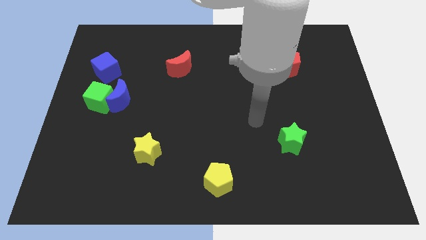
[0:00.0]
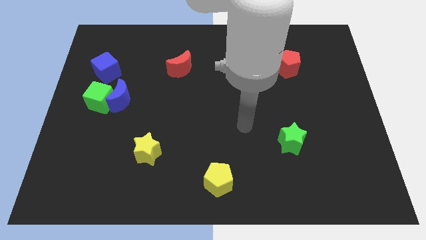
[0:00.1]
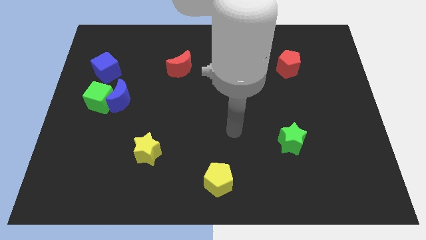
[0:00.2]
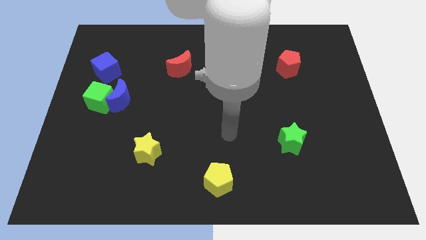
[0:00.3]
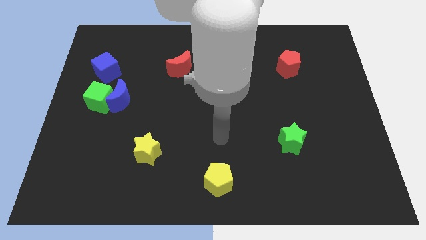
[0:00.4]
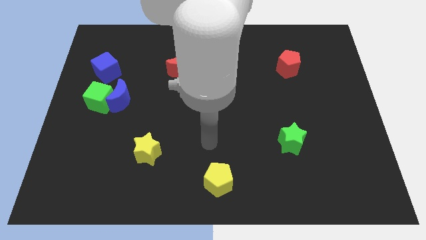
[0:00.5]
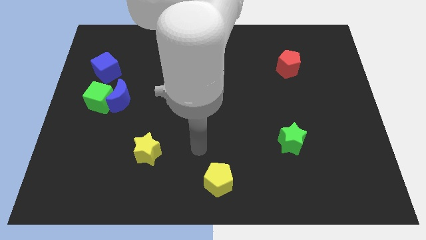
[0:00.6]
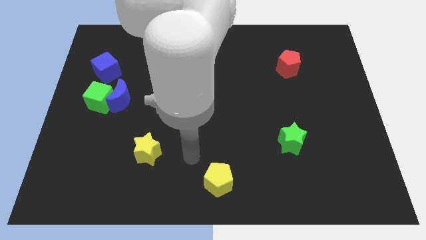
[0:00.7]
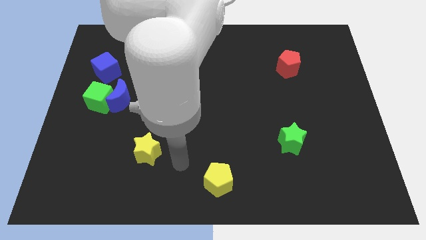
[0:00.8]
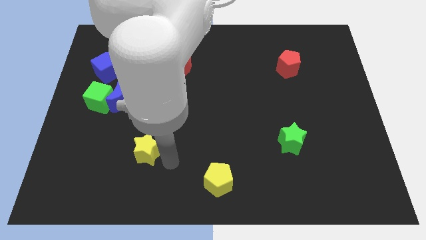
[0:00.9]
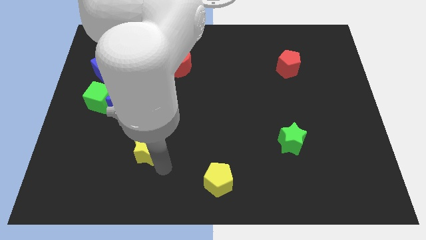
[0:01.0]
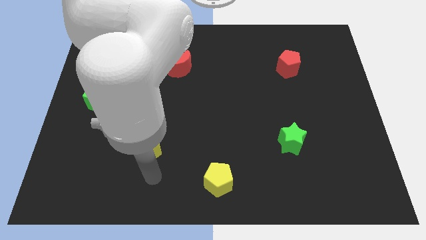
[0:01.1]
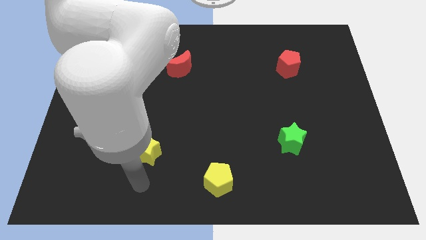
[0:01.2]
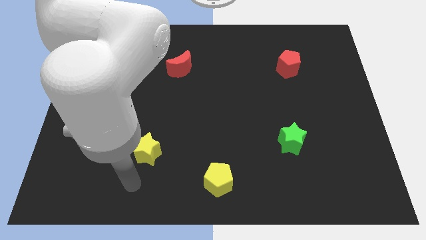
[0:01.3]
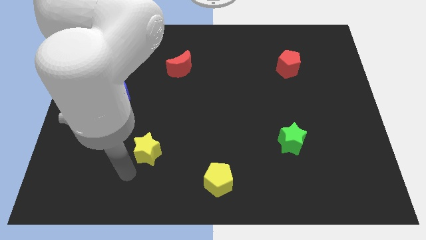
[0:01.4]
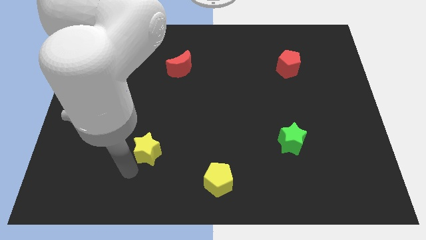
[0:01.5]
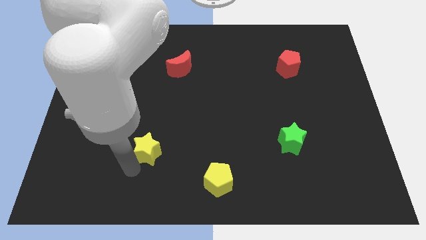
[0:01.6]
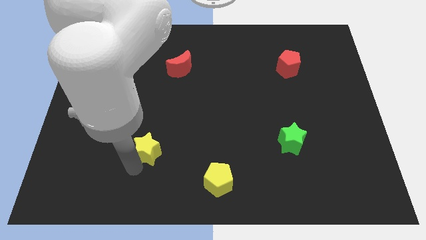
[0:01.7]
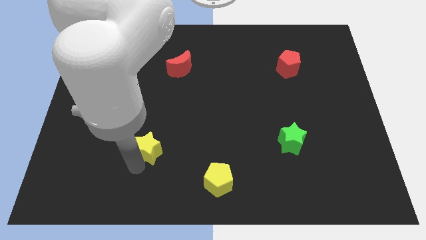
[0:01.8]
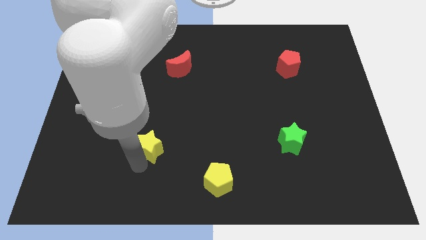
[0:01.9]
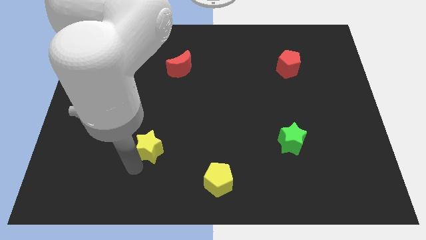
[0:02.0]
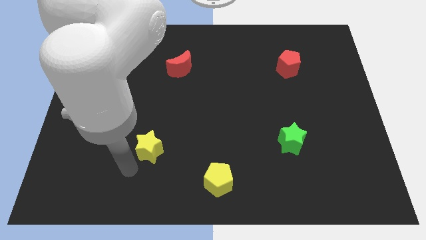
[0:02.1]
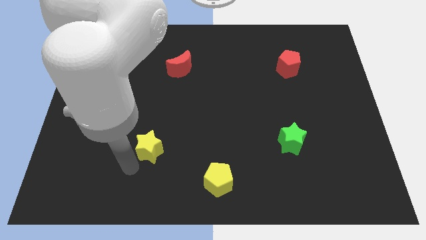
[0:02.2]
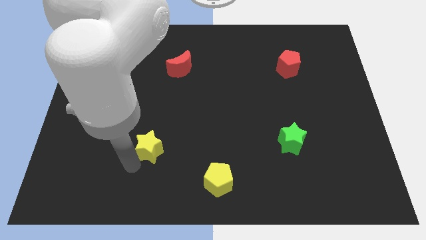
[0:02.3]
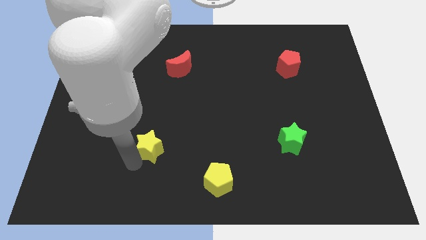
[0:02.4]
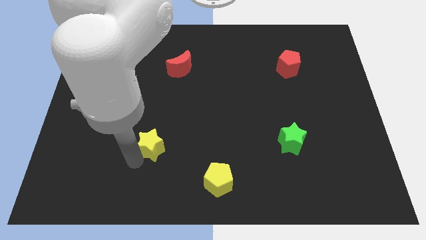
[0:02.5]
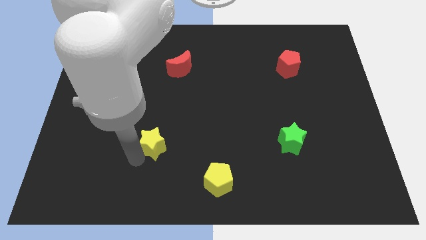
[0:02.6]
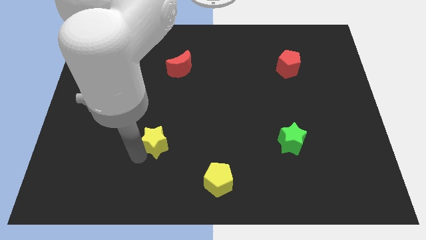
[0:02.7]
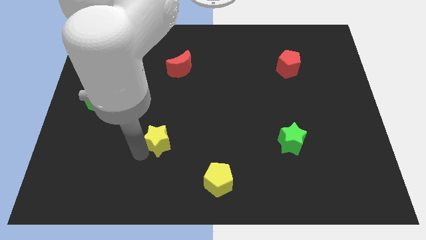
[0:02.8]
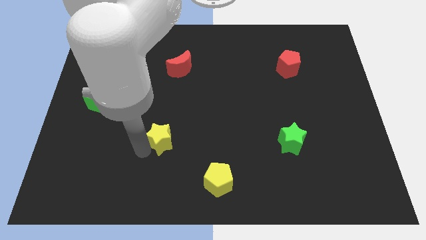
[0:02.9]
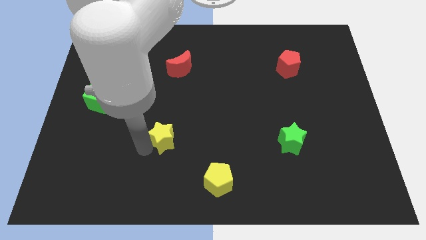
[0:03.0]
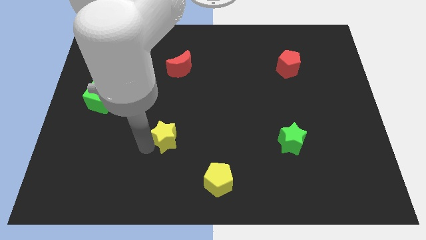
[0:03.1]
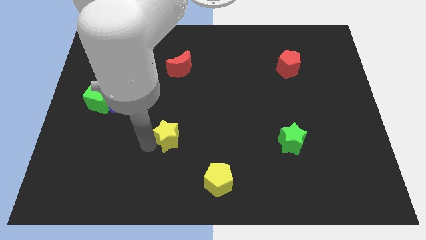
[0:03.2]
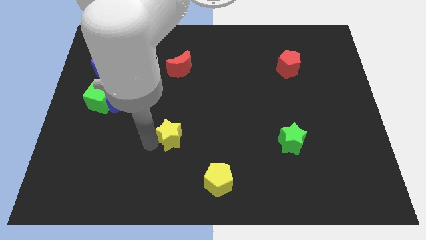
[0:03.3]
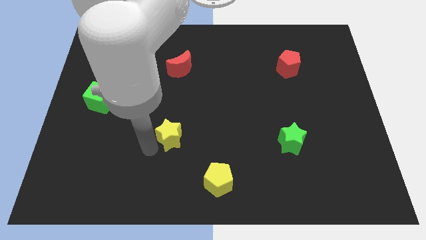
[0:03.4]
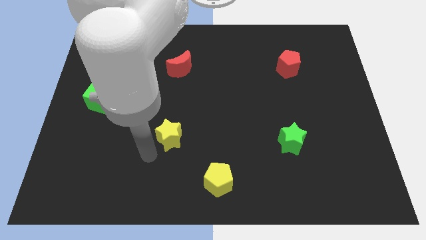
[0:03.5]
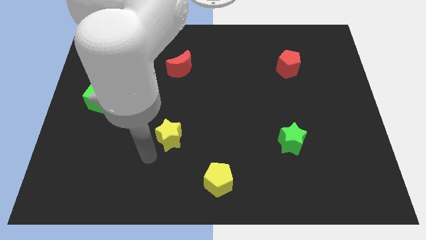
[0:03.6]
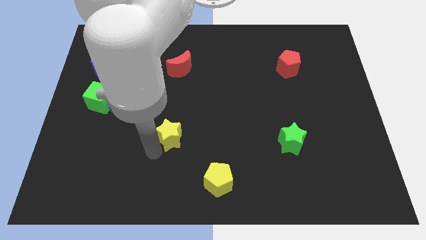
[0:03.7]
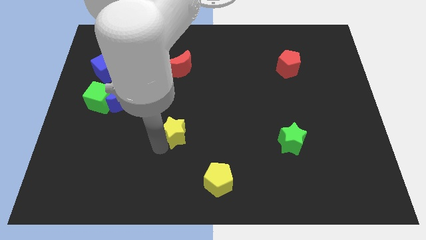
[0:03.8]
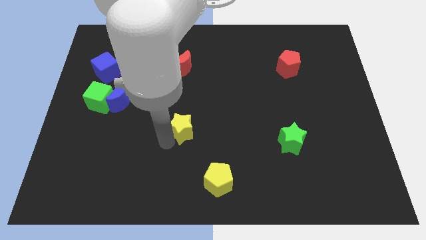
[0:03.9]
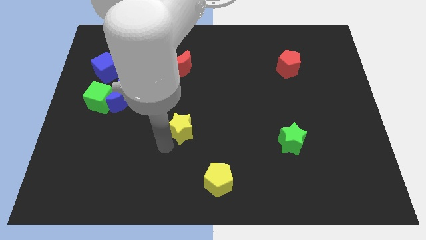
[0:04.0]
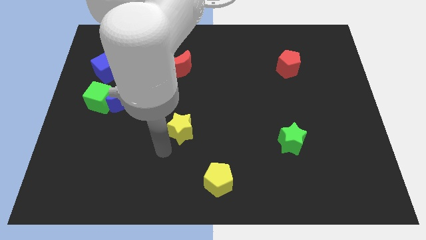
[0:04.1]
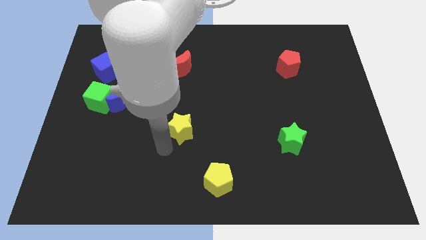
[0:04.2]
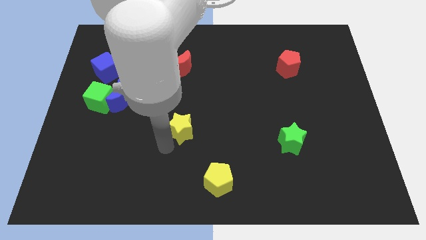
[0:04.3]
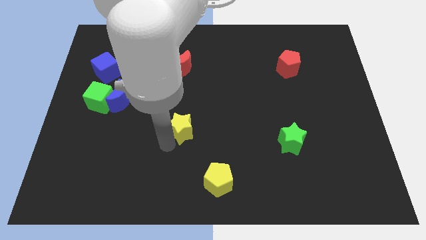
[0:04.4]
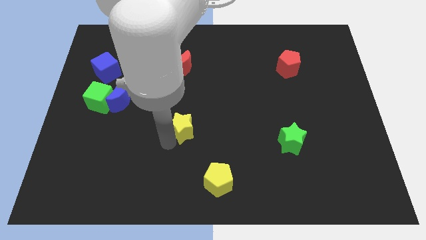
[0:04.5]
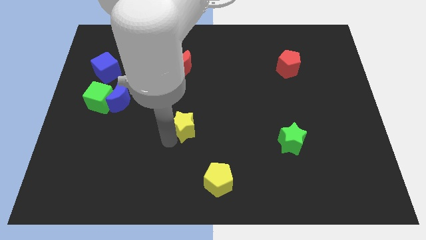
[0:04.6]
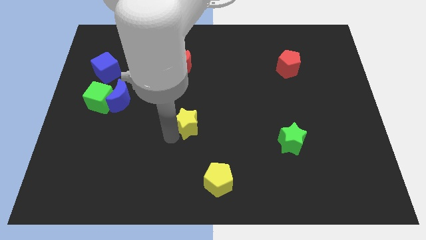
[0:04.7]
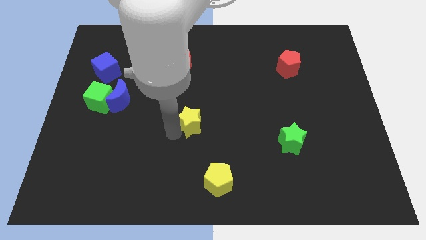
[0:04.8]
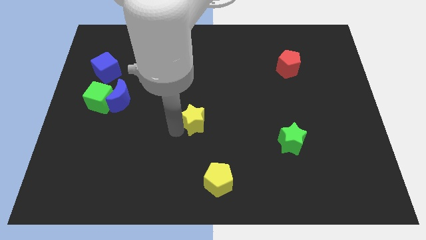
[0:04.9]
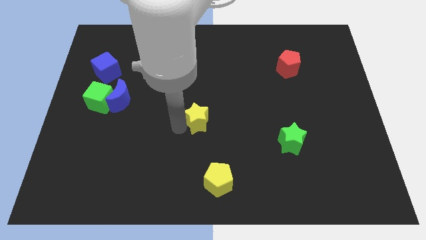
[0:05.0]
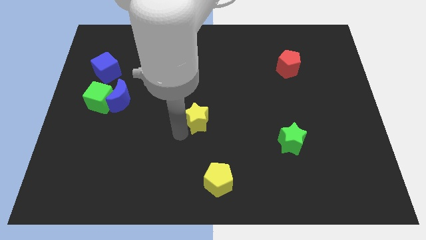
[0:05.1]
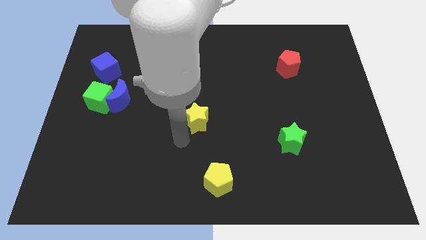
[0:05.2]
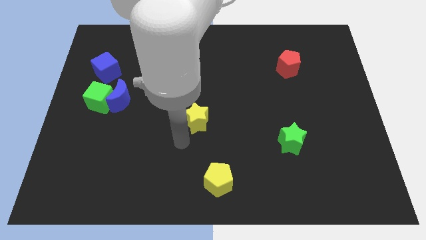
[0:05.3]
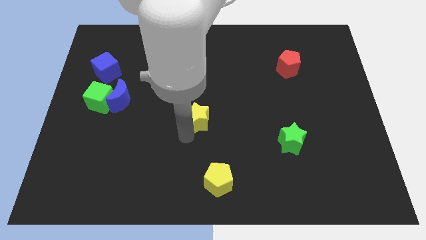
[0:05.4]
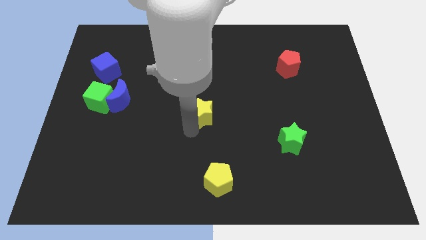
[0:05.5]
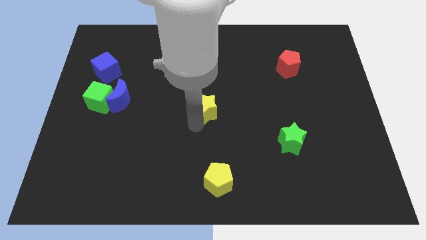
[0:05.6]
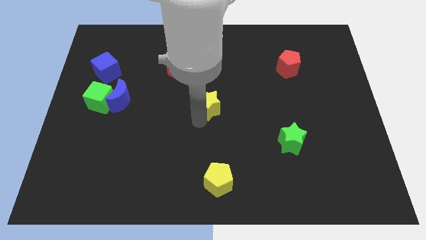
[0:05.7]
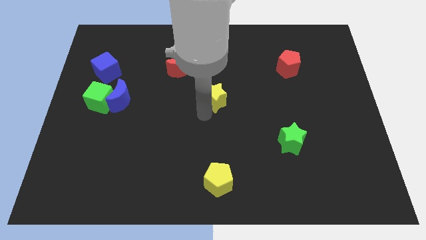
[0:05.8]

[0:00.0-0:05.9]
slide the yellow star up and then to the right

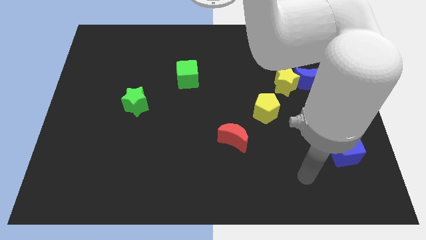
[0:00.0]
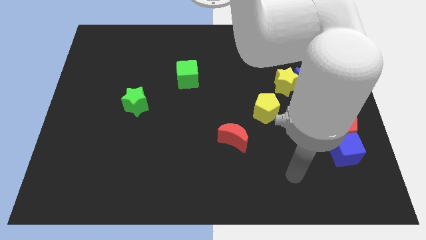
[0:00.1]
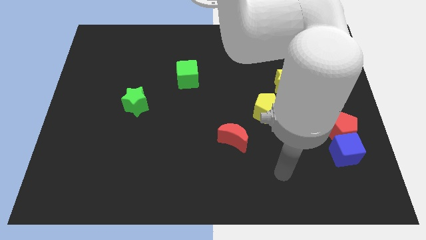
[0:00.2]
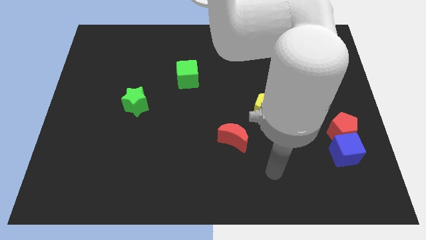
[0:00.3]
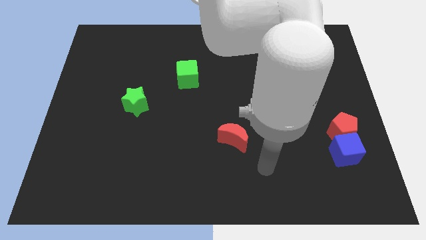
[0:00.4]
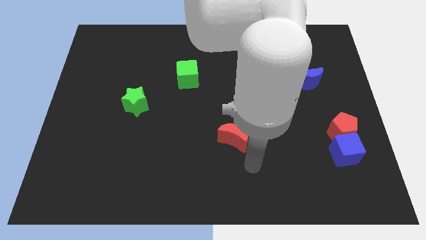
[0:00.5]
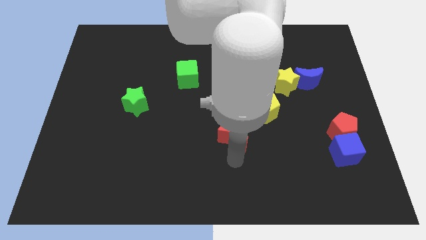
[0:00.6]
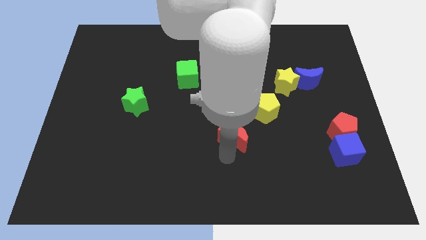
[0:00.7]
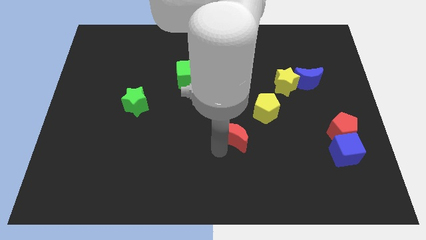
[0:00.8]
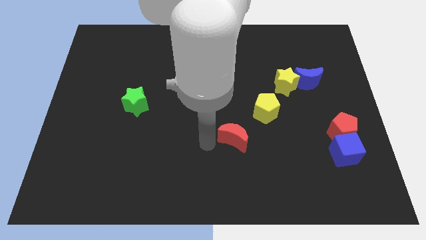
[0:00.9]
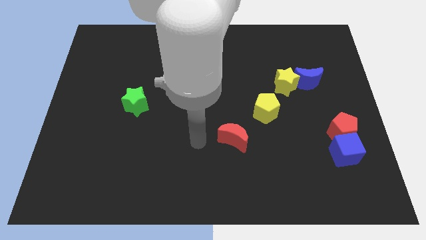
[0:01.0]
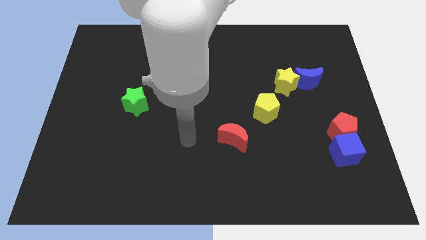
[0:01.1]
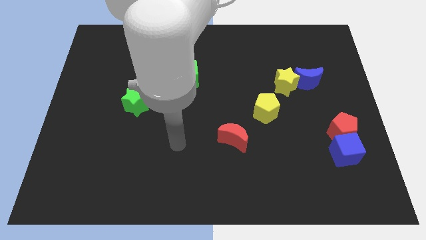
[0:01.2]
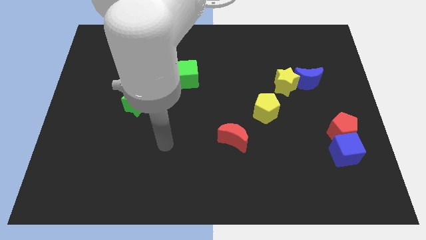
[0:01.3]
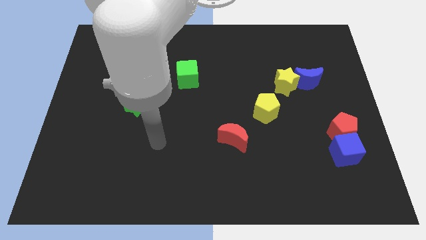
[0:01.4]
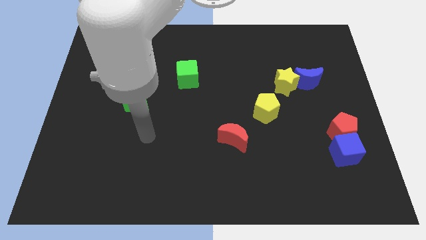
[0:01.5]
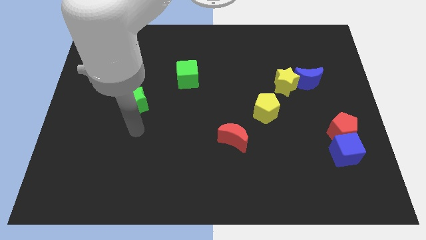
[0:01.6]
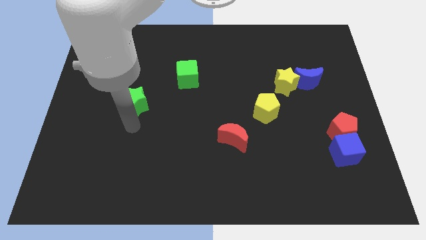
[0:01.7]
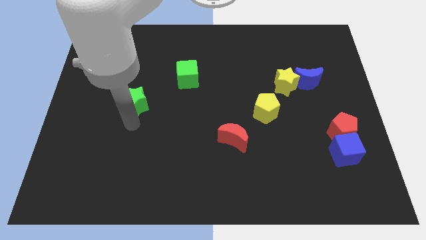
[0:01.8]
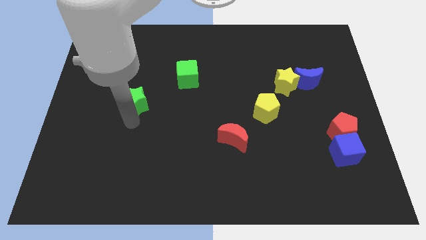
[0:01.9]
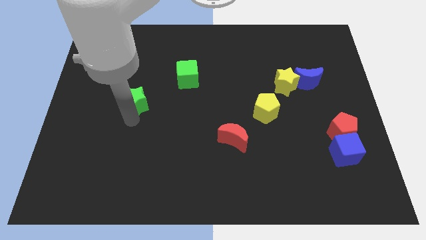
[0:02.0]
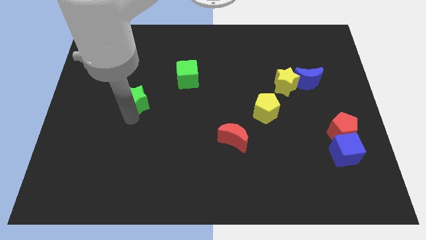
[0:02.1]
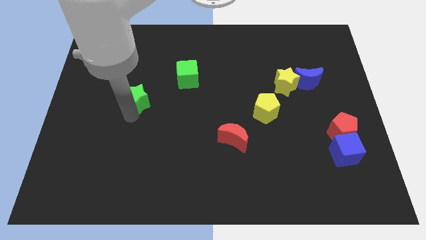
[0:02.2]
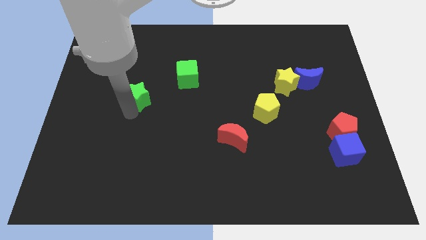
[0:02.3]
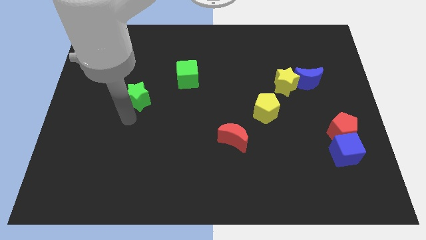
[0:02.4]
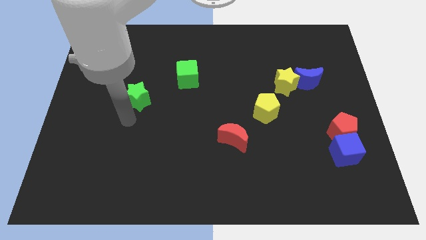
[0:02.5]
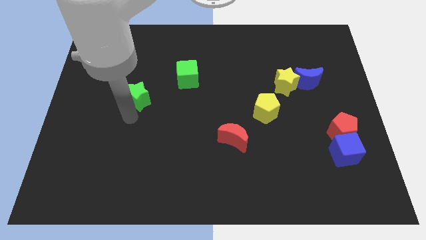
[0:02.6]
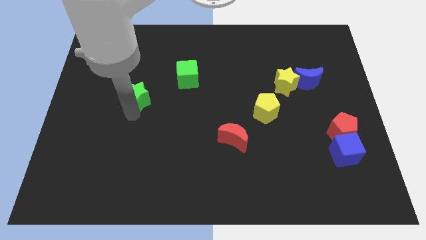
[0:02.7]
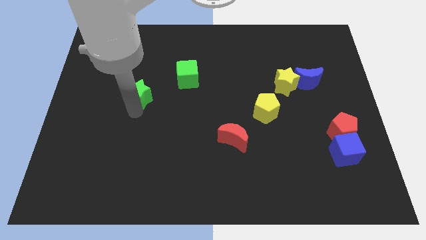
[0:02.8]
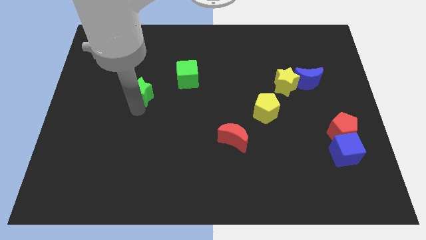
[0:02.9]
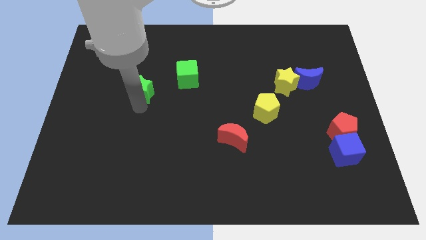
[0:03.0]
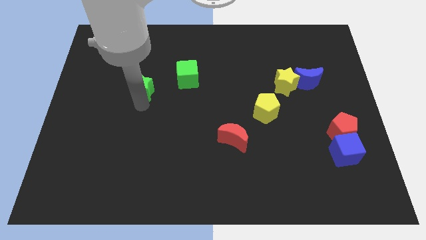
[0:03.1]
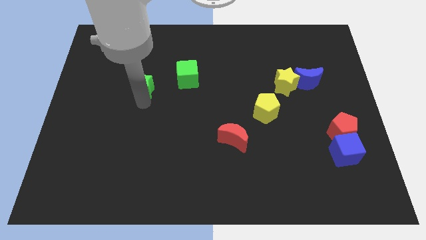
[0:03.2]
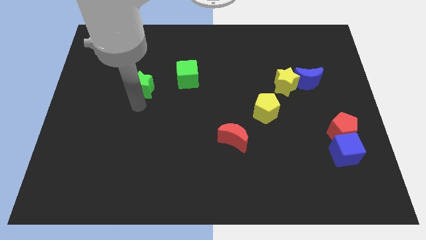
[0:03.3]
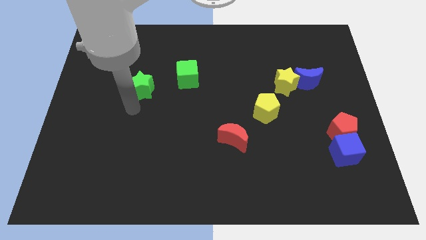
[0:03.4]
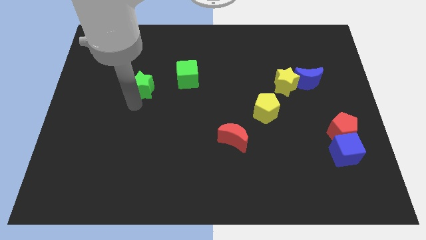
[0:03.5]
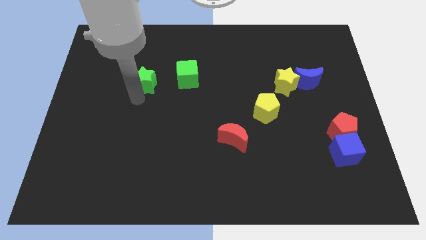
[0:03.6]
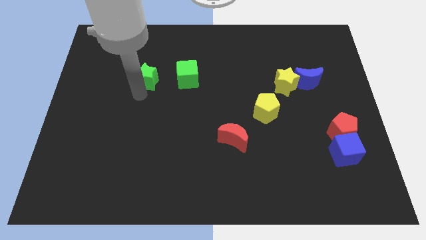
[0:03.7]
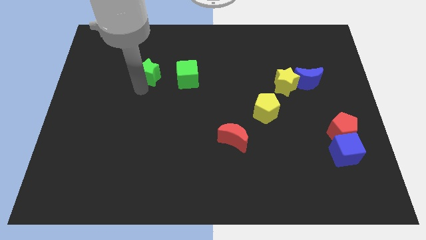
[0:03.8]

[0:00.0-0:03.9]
slightly move the green star diagonally up and to the right
